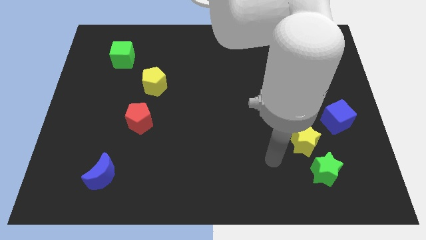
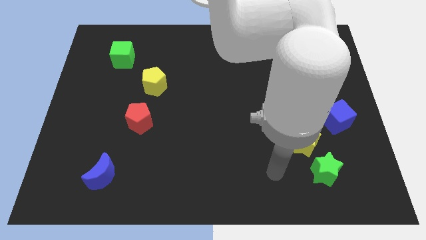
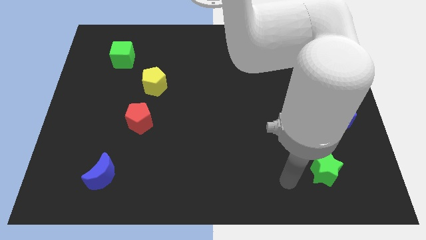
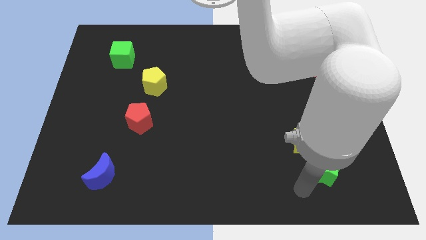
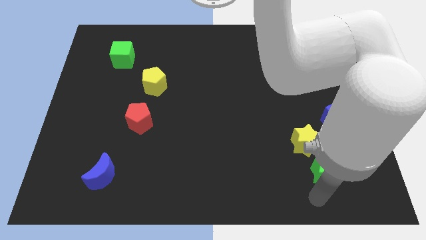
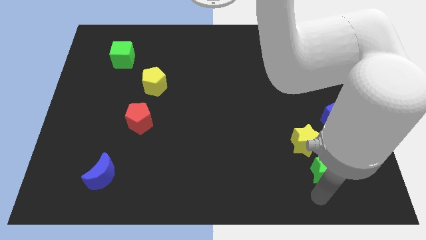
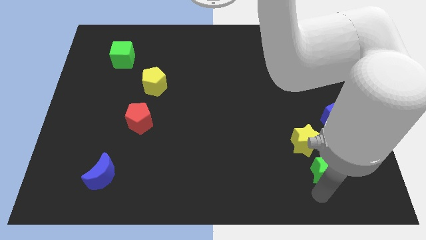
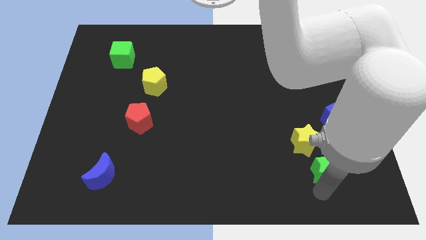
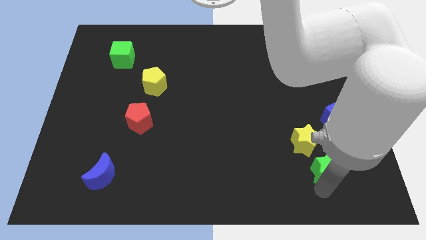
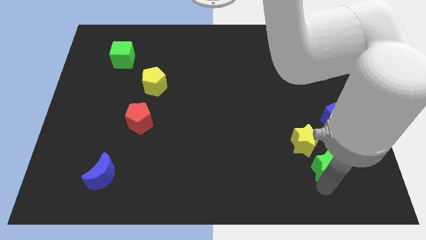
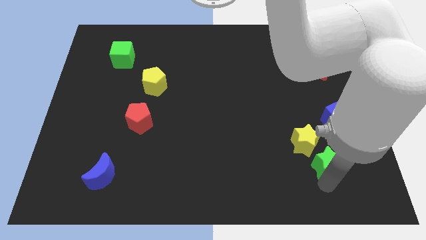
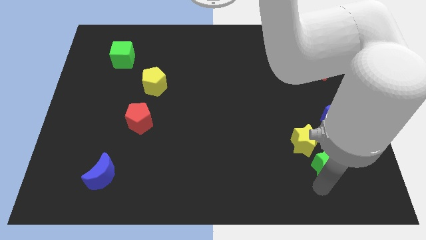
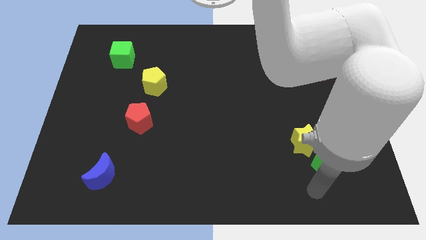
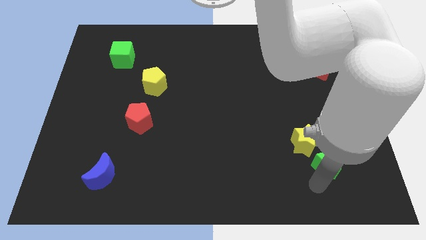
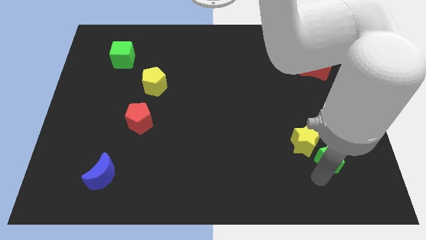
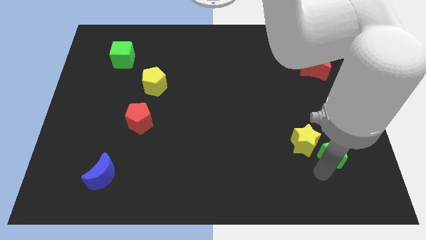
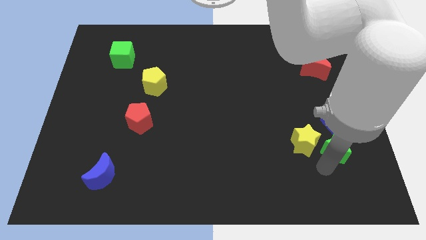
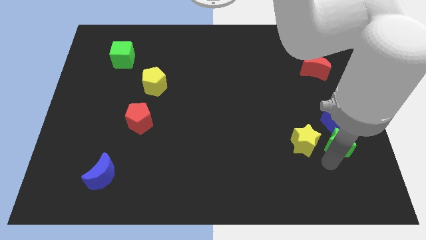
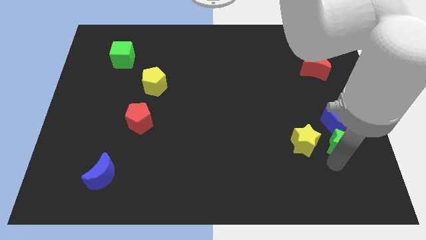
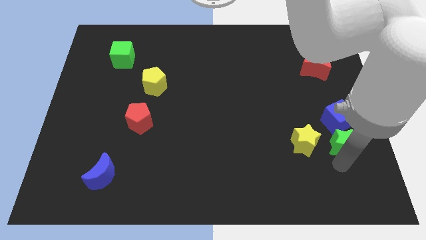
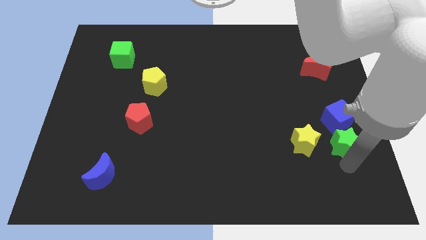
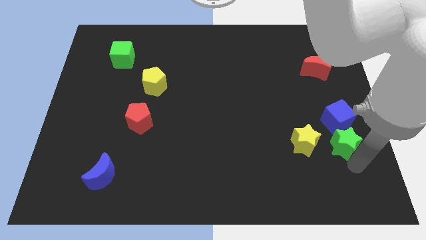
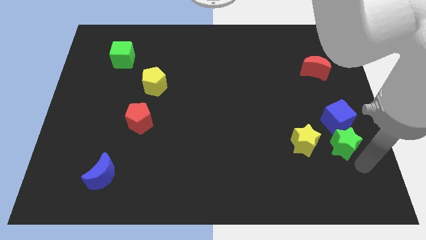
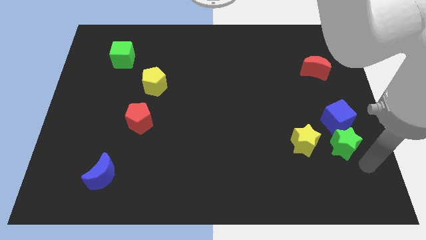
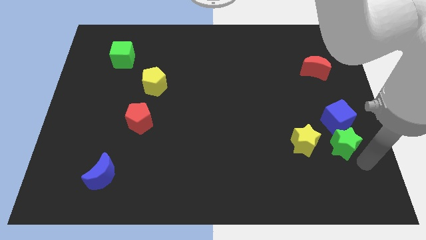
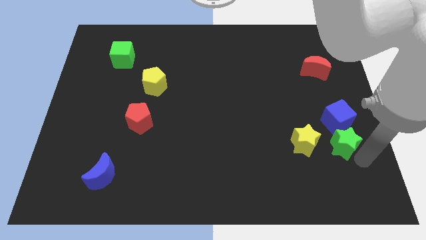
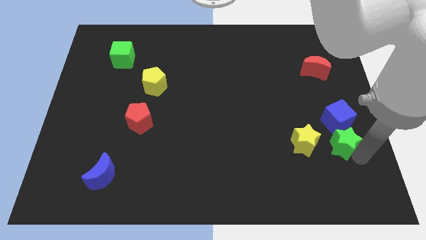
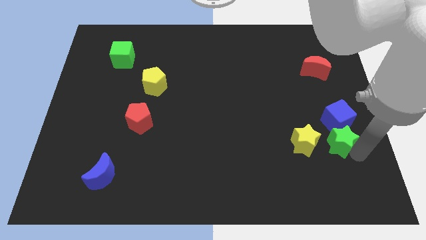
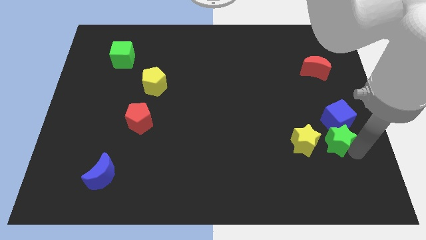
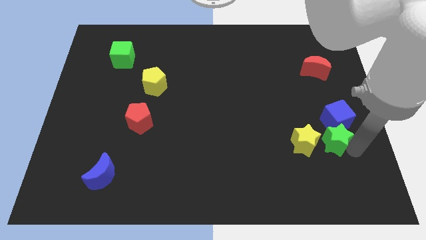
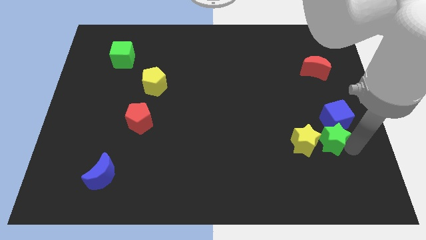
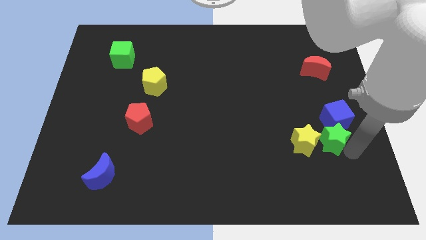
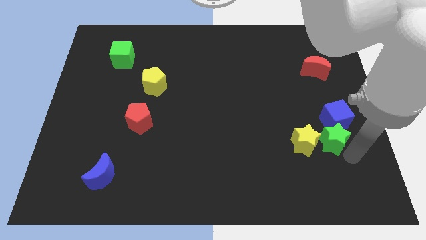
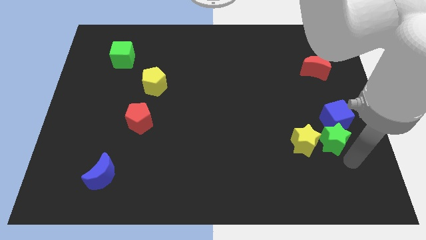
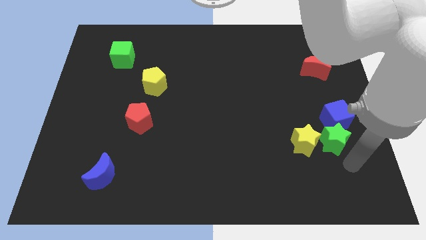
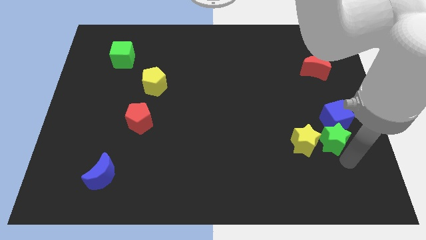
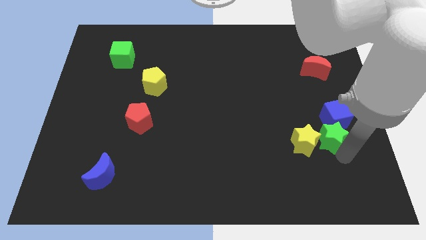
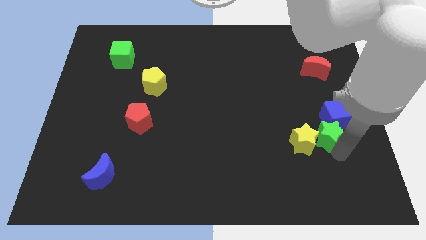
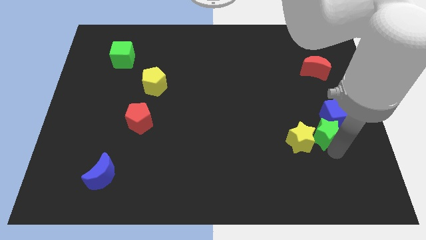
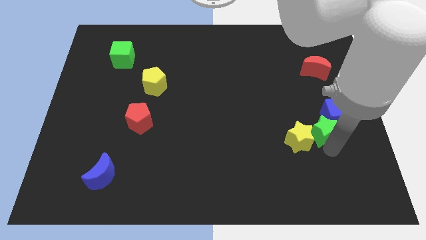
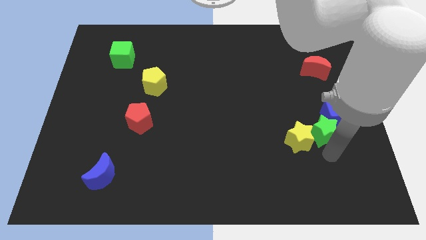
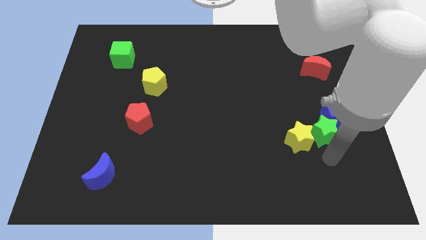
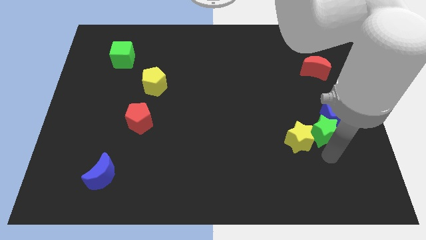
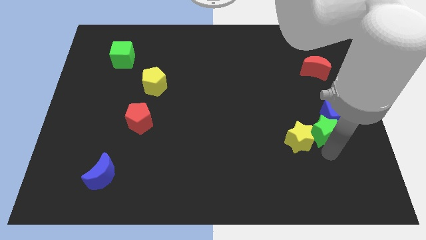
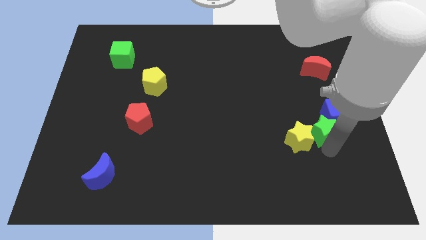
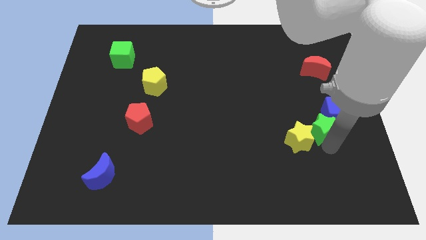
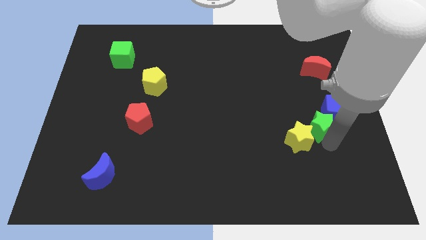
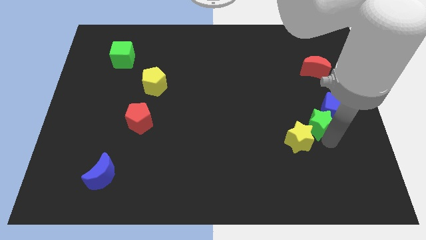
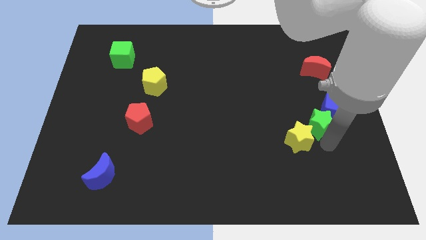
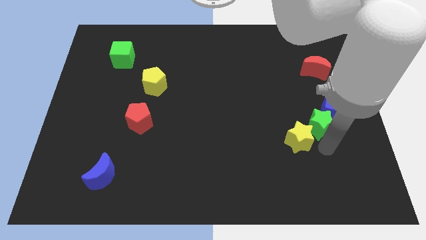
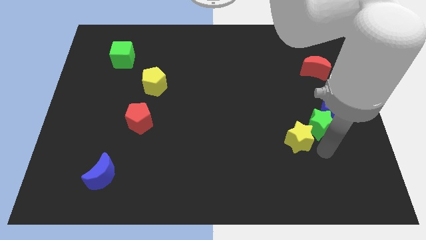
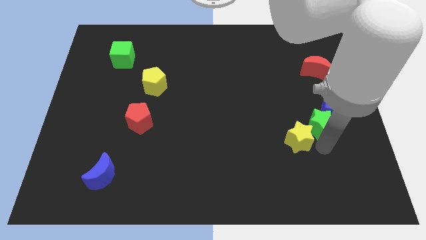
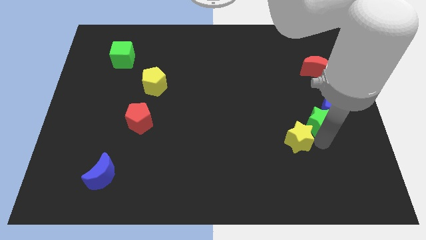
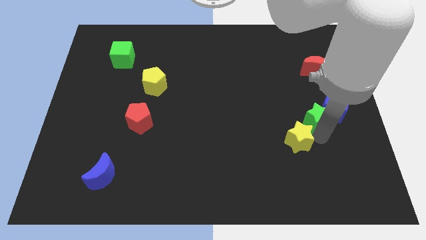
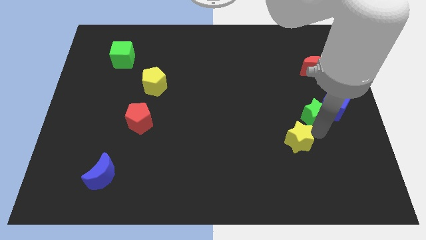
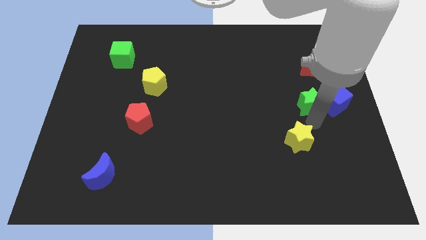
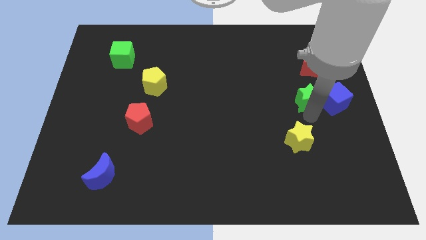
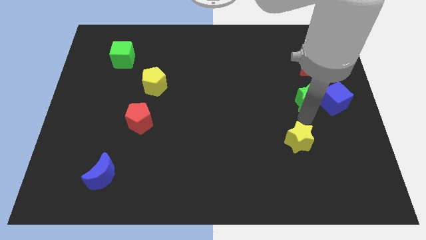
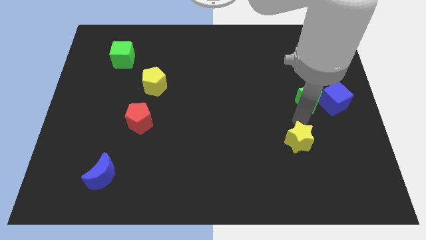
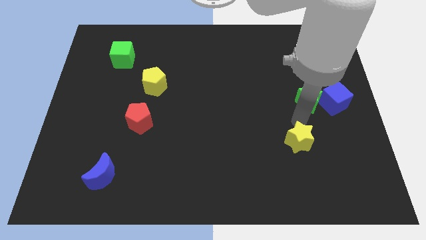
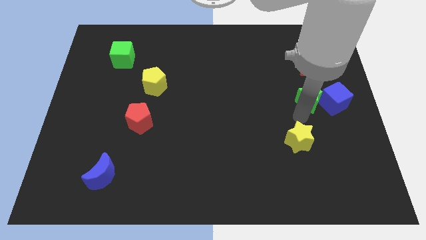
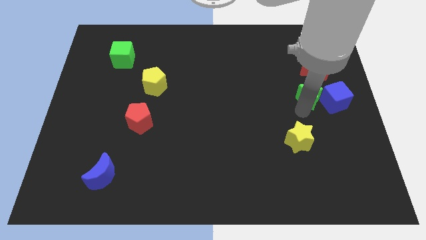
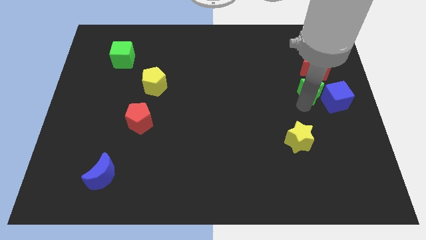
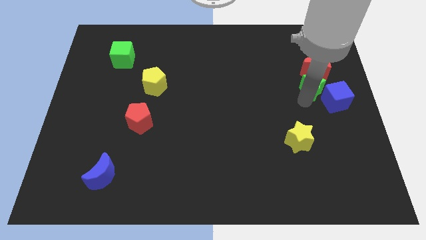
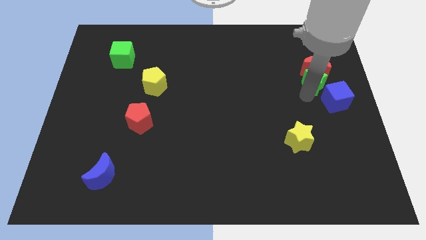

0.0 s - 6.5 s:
move the green star next to the red moon

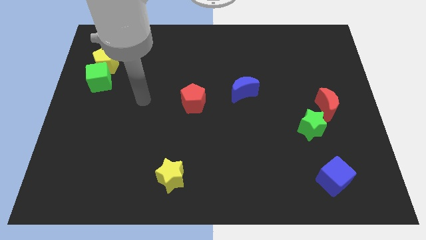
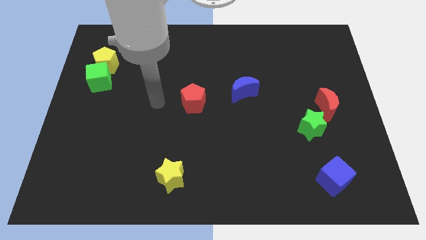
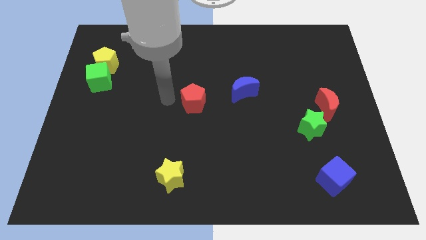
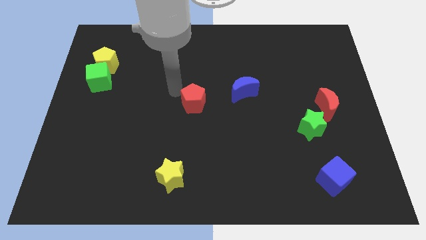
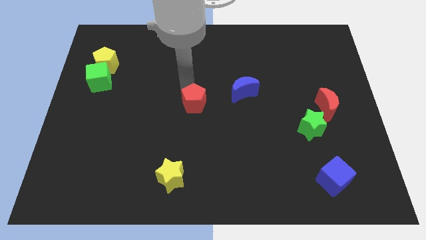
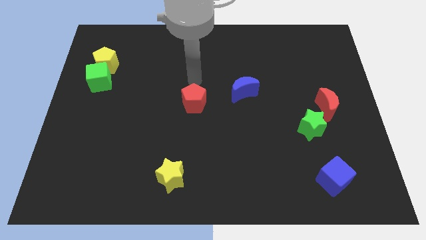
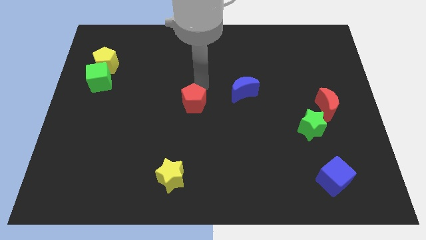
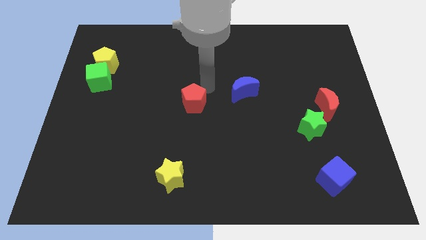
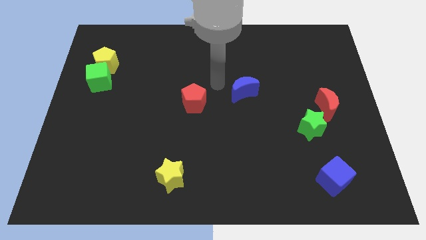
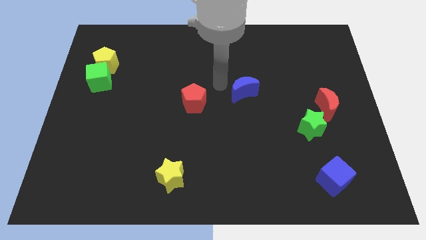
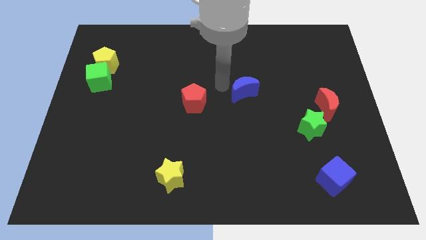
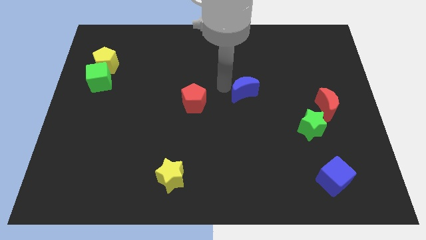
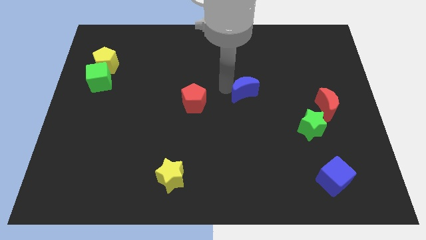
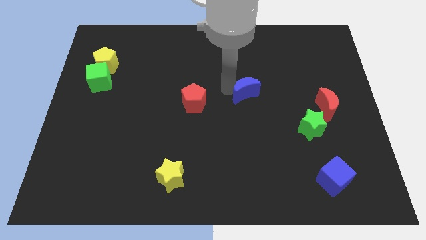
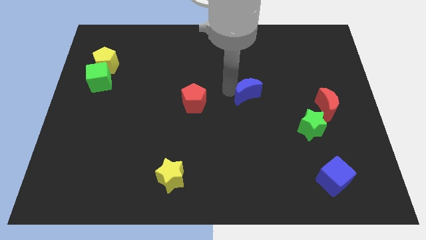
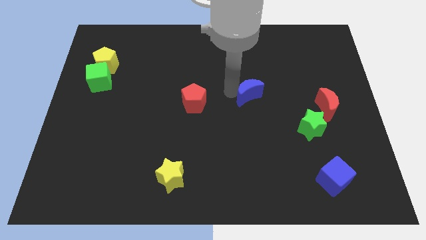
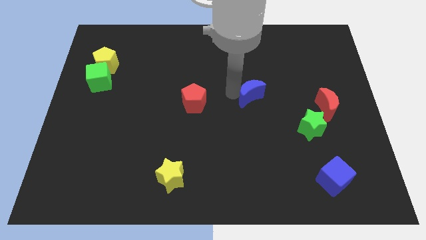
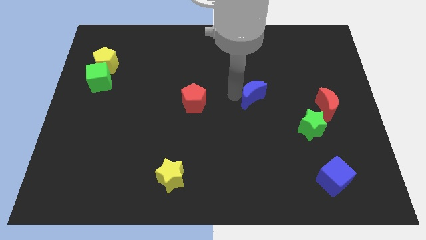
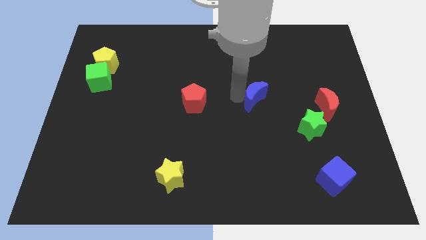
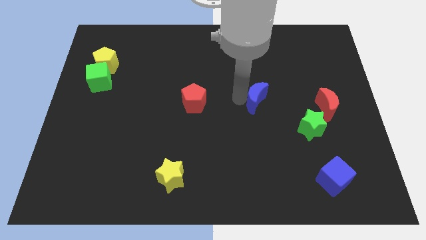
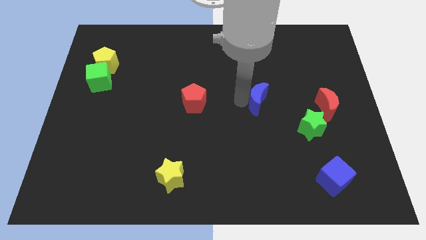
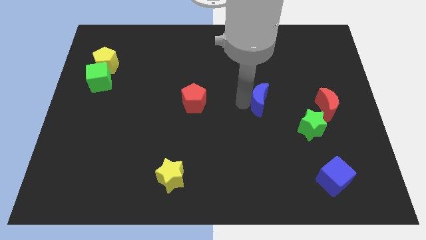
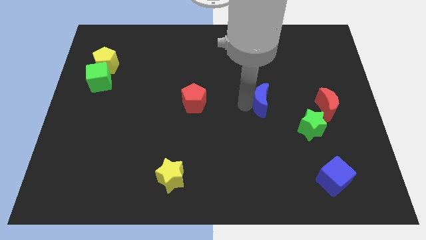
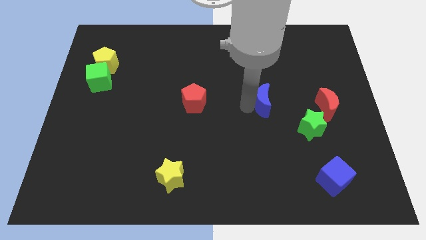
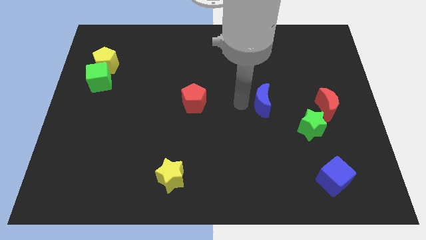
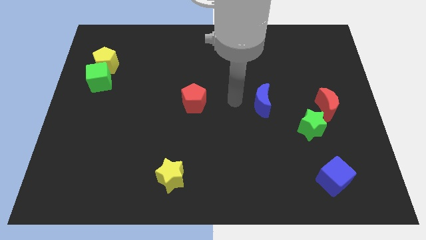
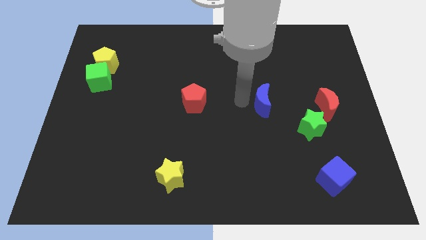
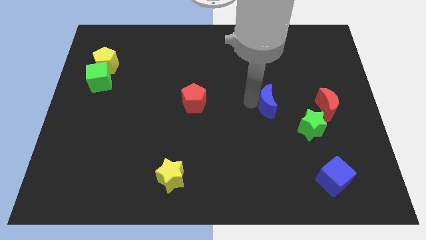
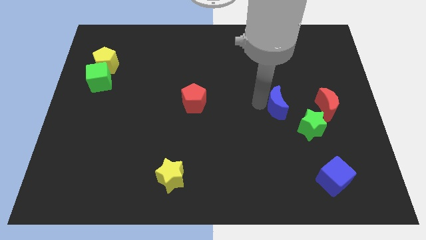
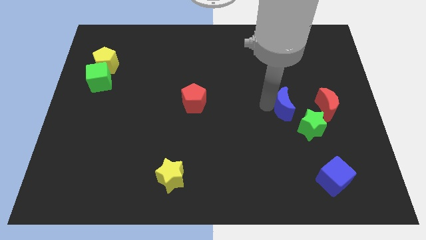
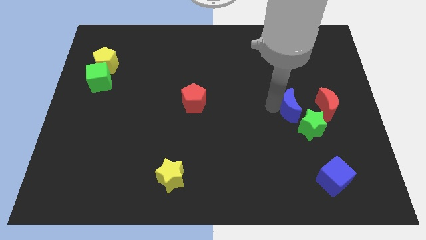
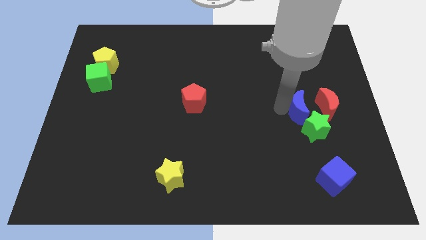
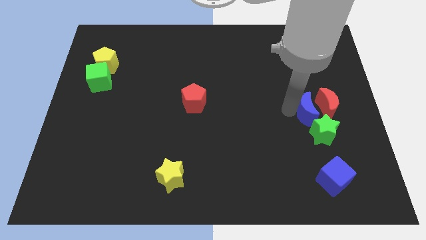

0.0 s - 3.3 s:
slide the blue moon next to the red moon
